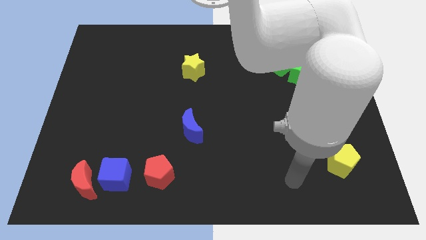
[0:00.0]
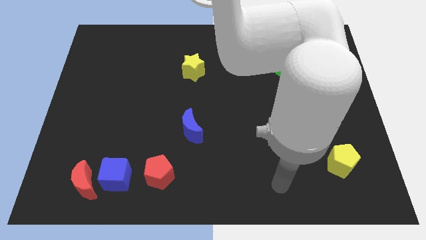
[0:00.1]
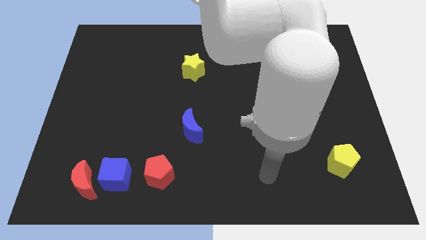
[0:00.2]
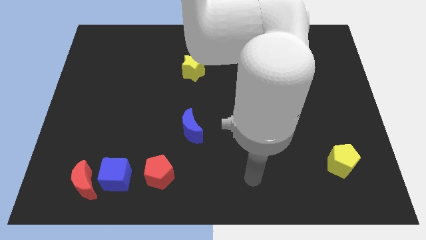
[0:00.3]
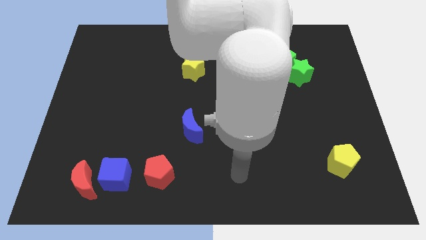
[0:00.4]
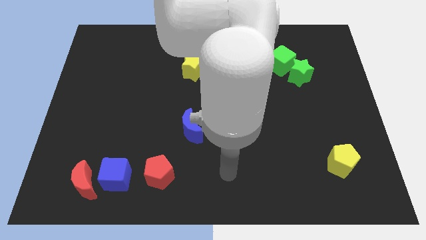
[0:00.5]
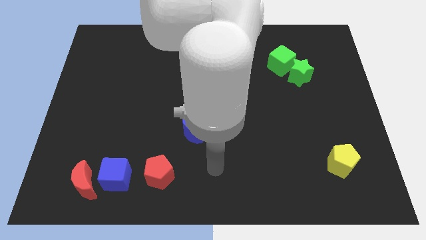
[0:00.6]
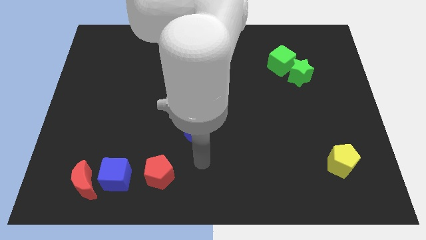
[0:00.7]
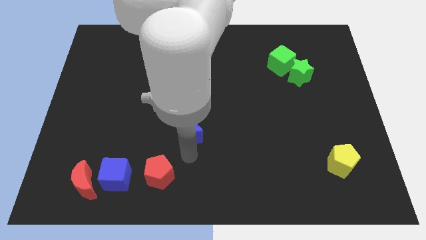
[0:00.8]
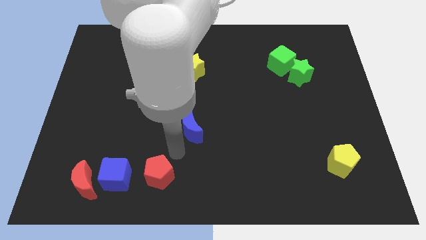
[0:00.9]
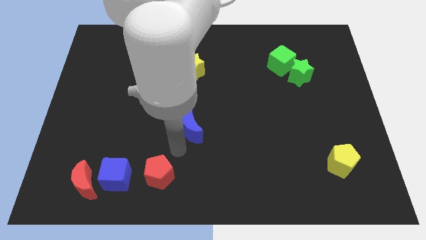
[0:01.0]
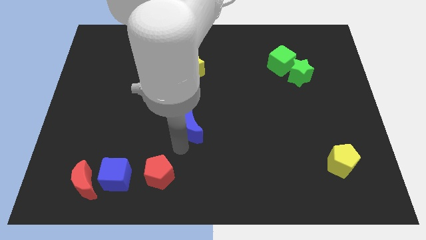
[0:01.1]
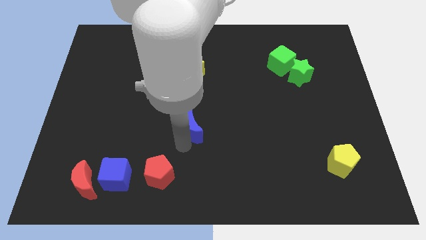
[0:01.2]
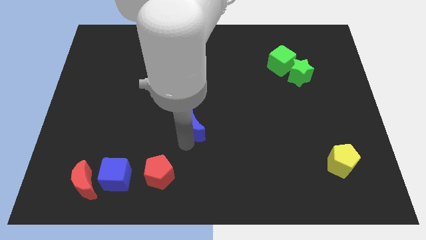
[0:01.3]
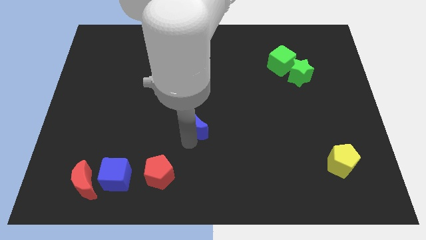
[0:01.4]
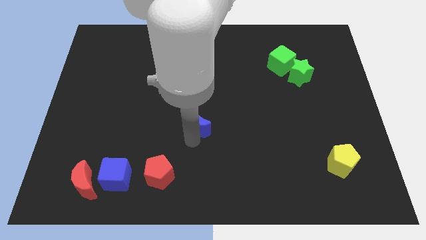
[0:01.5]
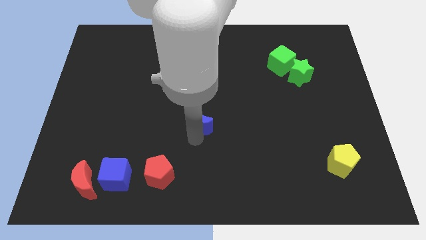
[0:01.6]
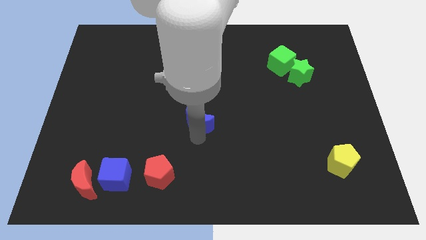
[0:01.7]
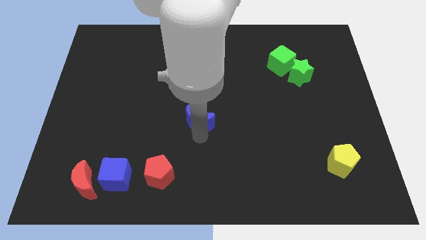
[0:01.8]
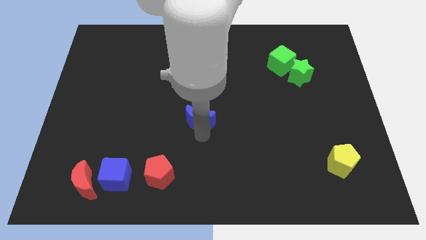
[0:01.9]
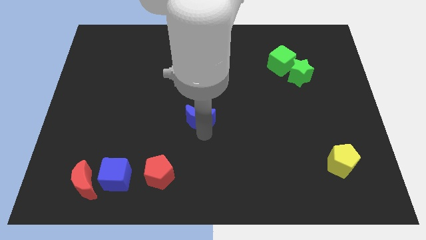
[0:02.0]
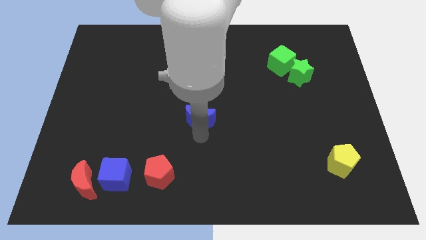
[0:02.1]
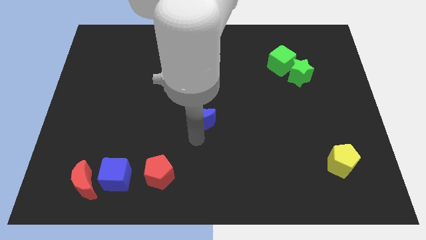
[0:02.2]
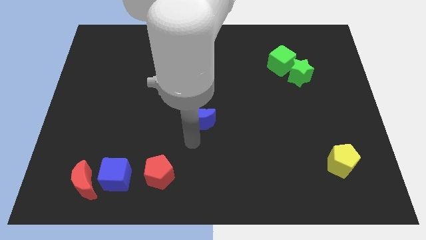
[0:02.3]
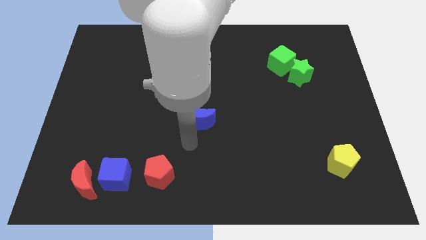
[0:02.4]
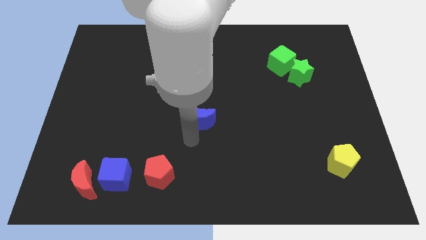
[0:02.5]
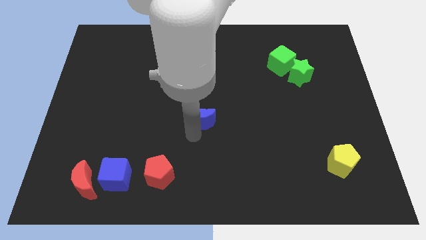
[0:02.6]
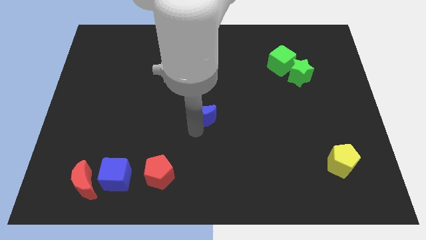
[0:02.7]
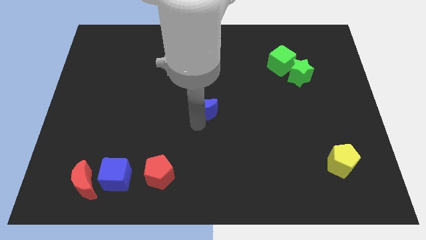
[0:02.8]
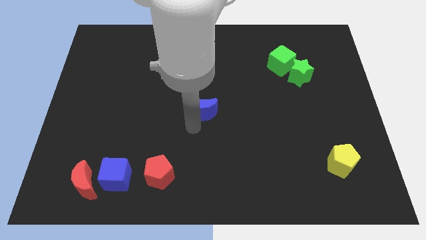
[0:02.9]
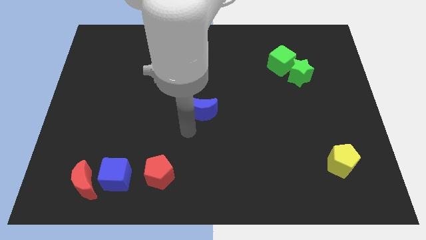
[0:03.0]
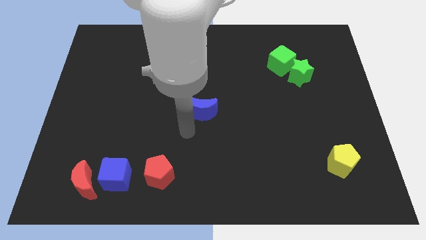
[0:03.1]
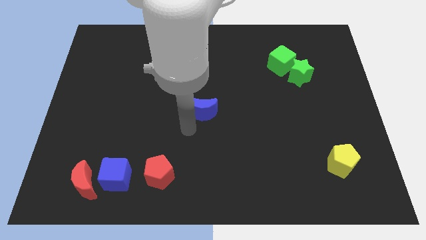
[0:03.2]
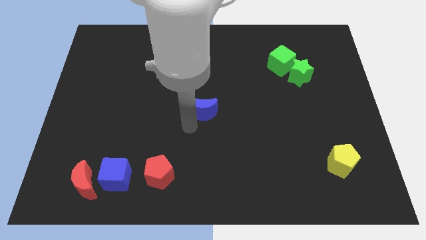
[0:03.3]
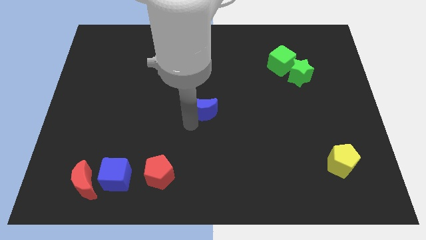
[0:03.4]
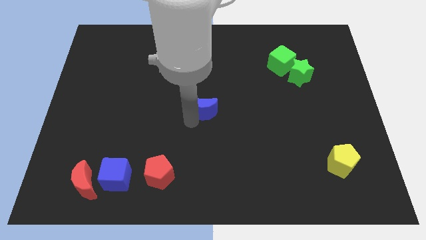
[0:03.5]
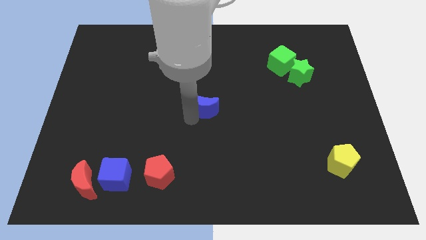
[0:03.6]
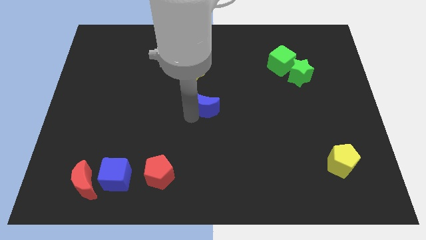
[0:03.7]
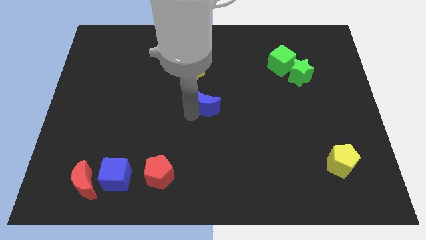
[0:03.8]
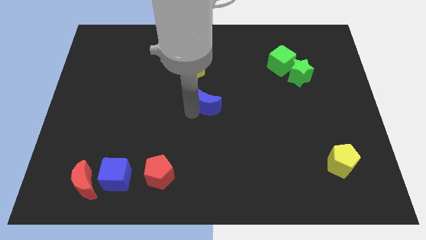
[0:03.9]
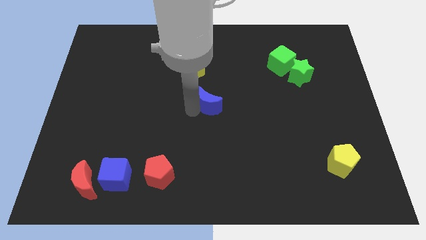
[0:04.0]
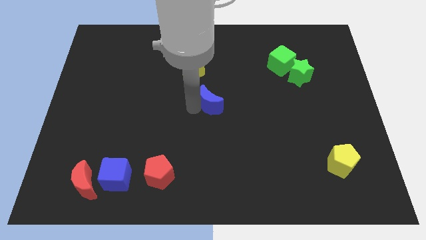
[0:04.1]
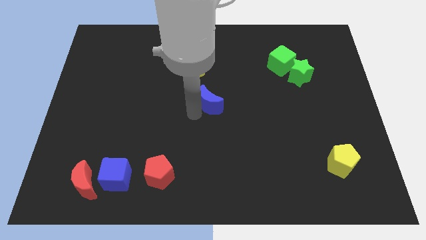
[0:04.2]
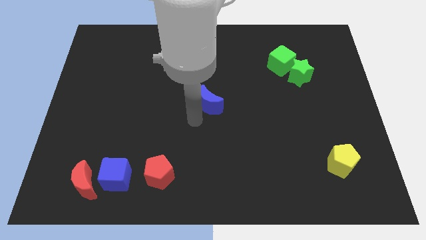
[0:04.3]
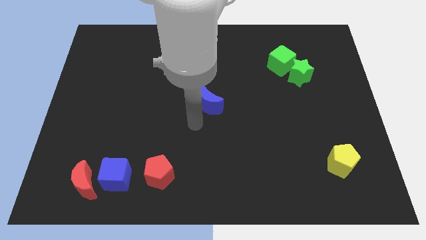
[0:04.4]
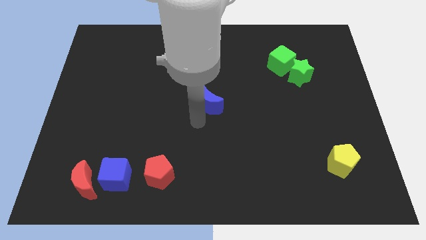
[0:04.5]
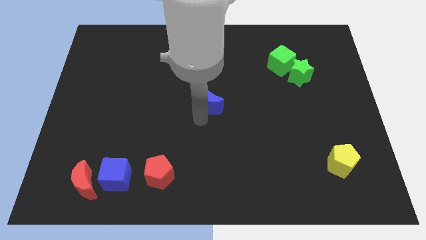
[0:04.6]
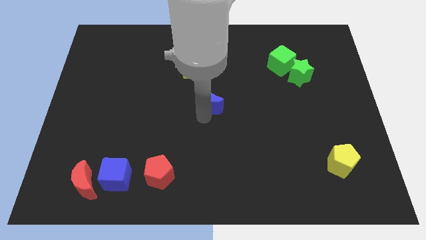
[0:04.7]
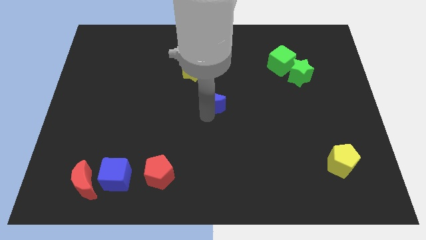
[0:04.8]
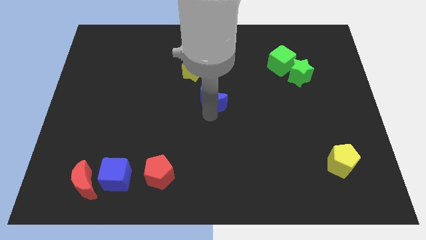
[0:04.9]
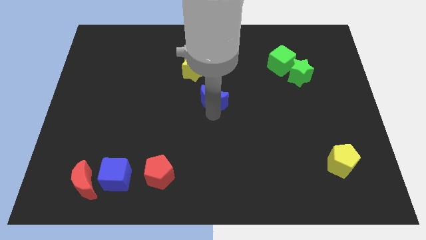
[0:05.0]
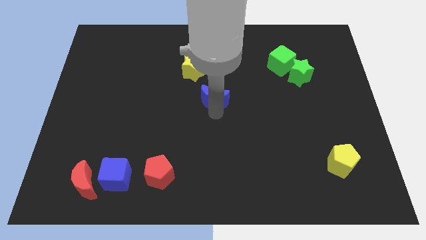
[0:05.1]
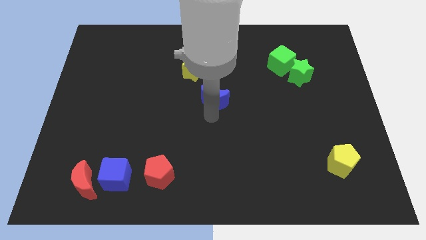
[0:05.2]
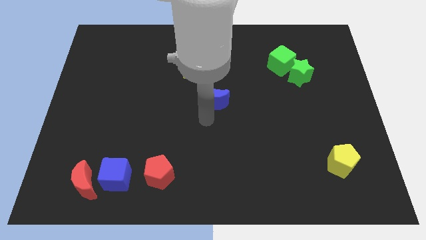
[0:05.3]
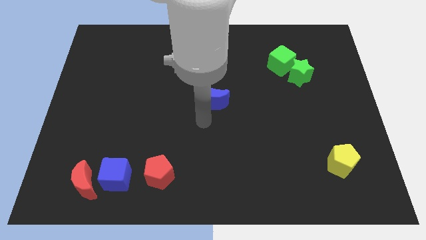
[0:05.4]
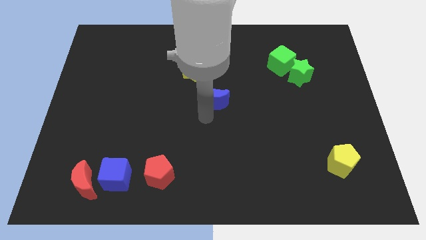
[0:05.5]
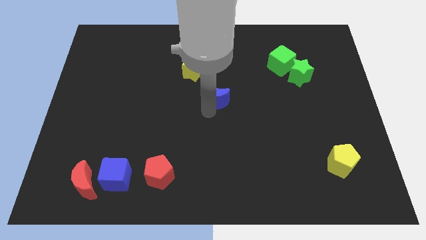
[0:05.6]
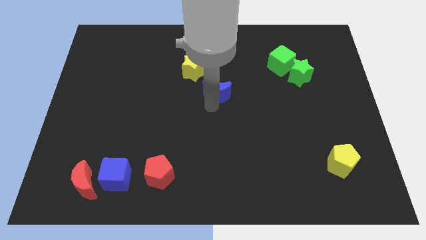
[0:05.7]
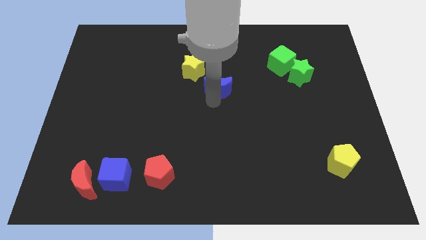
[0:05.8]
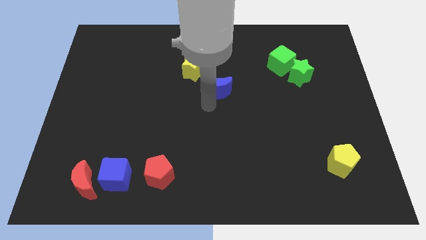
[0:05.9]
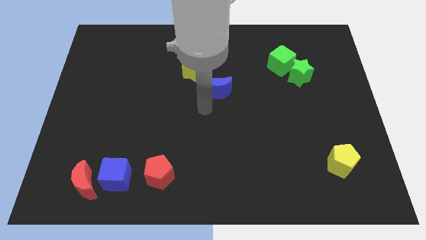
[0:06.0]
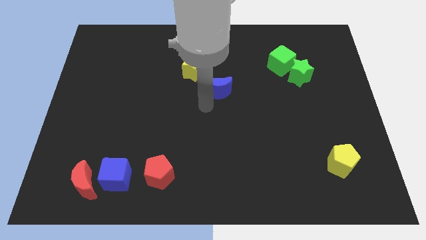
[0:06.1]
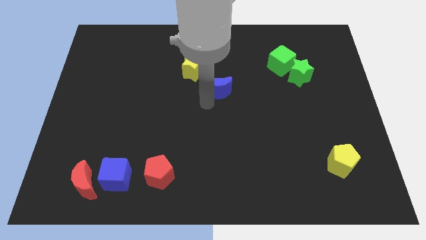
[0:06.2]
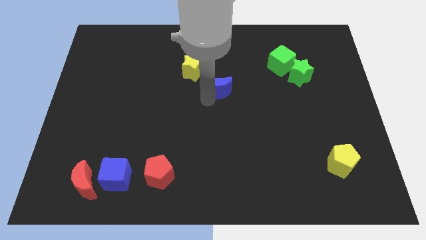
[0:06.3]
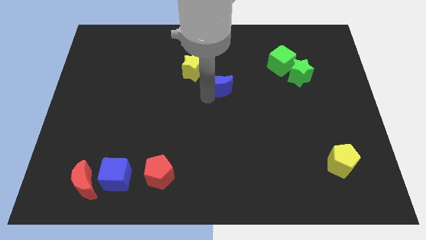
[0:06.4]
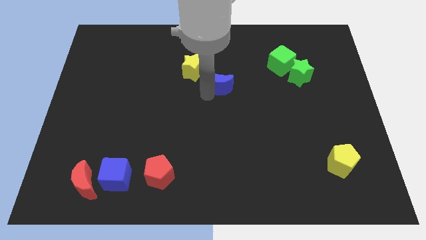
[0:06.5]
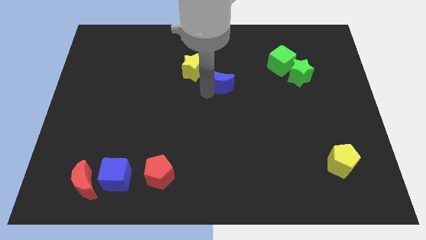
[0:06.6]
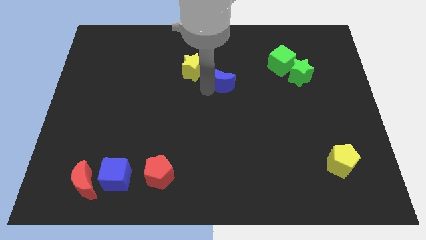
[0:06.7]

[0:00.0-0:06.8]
move the blue moon to the right of the yellow star

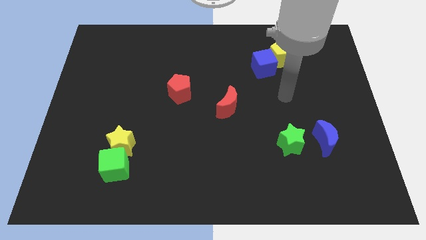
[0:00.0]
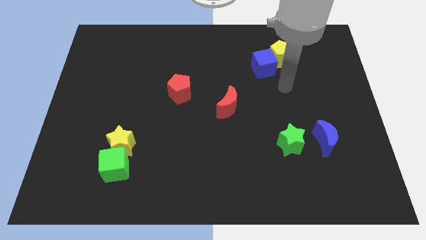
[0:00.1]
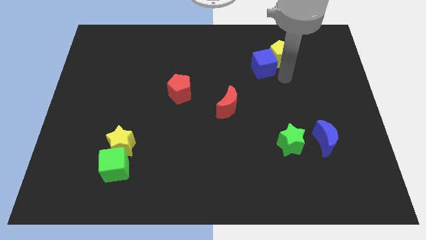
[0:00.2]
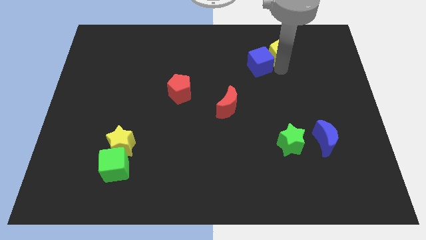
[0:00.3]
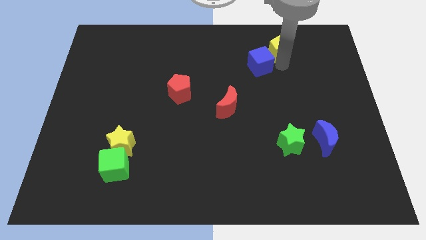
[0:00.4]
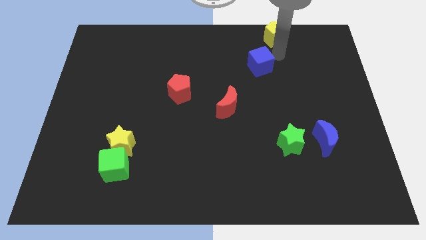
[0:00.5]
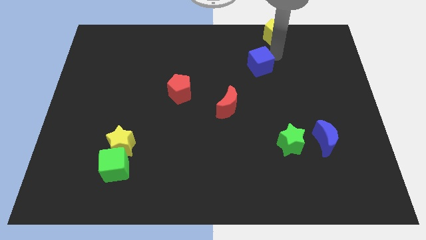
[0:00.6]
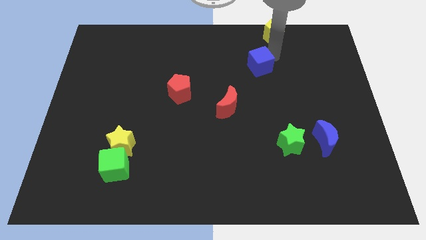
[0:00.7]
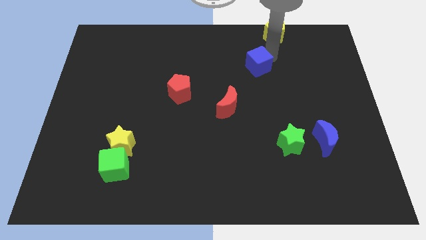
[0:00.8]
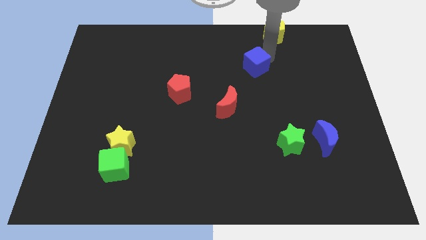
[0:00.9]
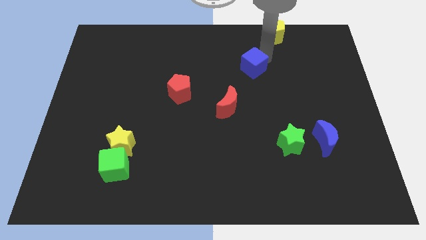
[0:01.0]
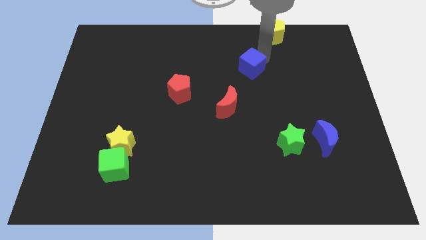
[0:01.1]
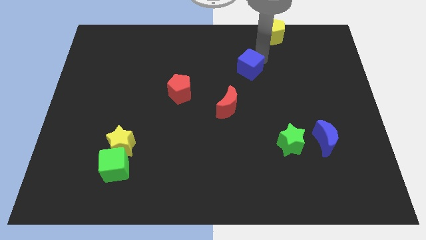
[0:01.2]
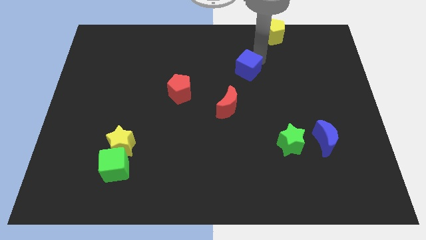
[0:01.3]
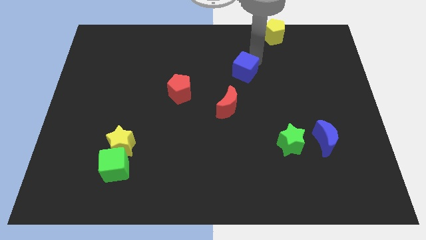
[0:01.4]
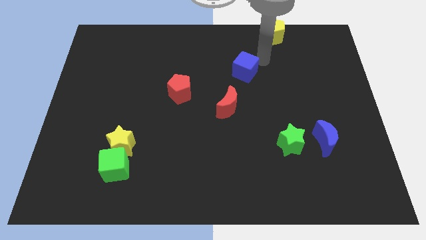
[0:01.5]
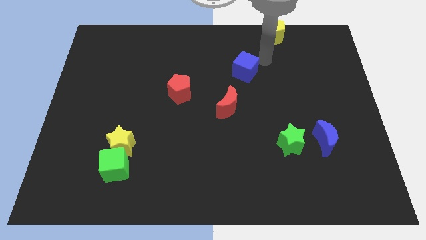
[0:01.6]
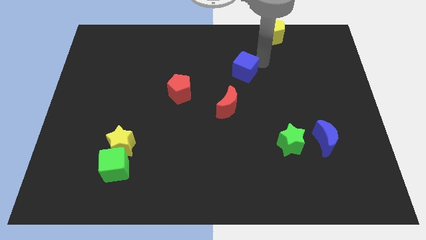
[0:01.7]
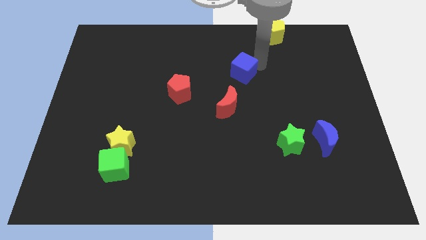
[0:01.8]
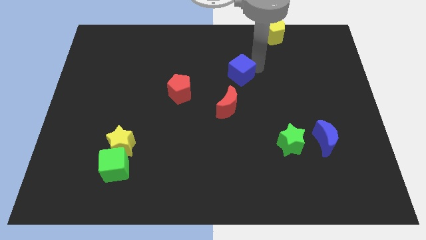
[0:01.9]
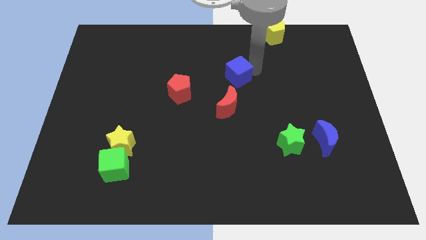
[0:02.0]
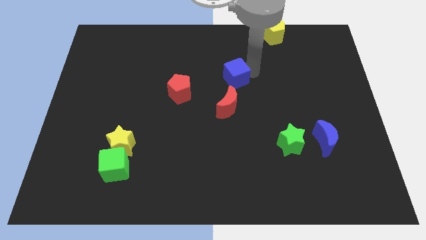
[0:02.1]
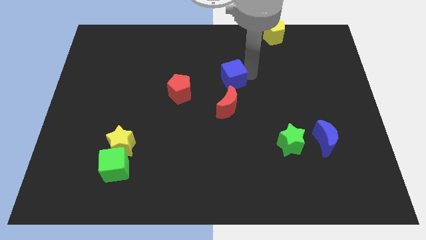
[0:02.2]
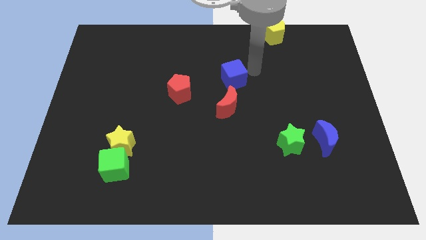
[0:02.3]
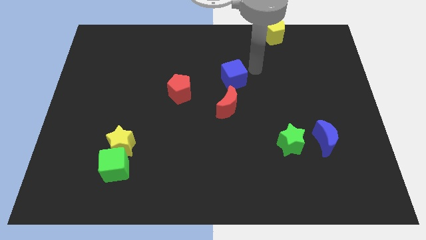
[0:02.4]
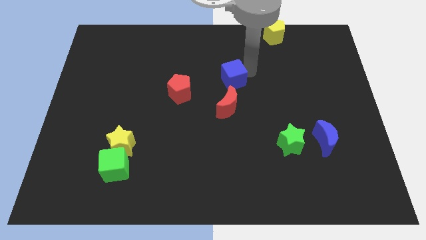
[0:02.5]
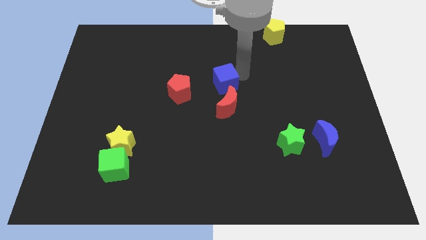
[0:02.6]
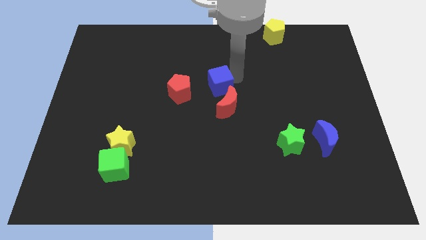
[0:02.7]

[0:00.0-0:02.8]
move the blue cube to the top left of the red moon
